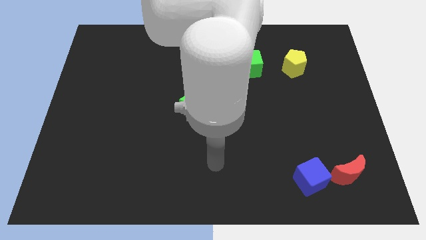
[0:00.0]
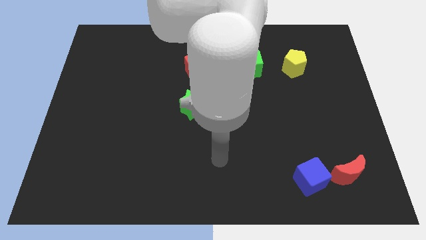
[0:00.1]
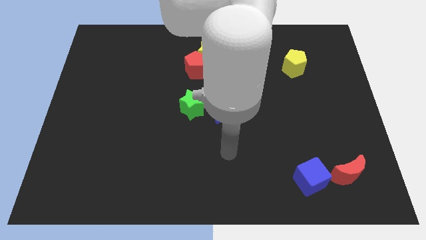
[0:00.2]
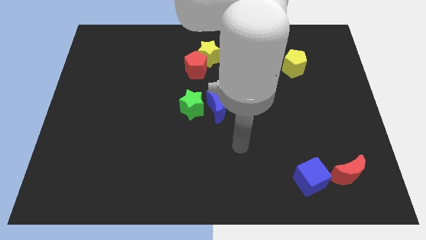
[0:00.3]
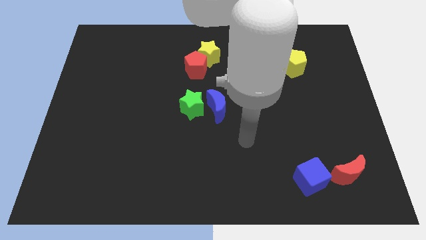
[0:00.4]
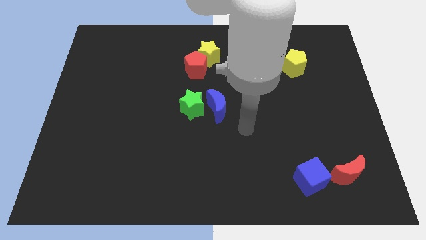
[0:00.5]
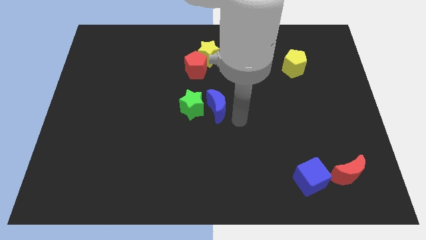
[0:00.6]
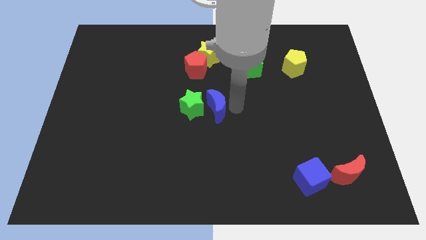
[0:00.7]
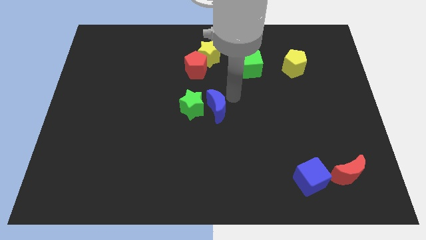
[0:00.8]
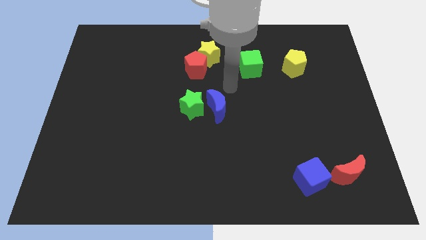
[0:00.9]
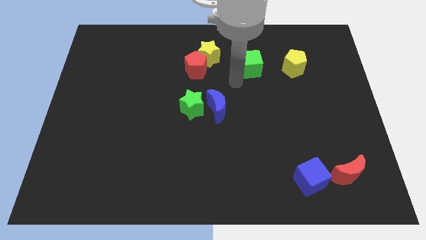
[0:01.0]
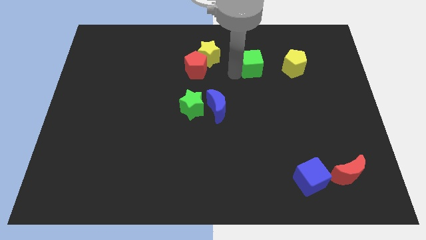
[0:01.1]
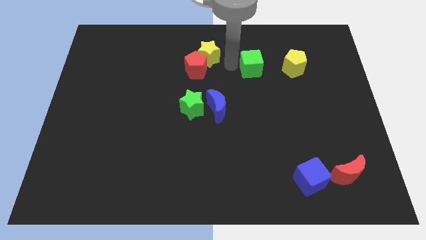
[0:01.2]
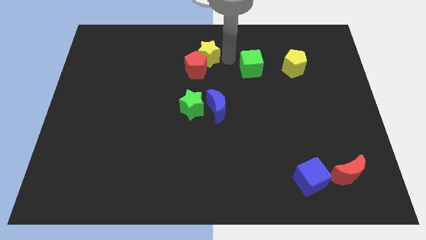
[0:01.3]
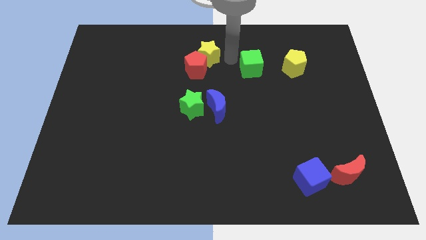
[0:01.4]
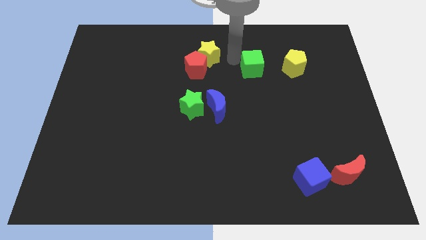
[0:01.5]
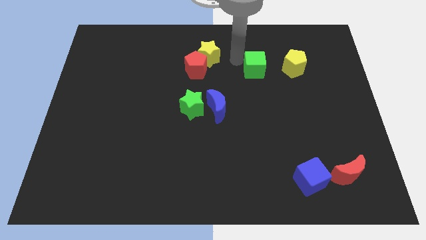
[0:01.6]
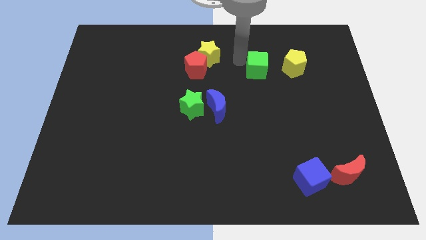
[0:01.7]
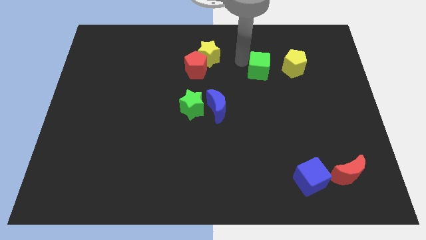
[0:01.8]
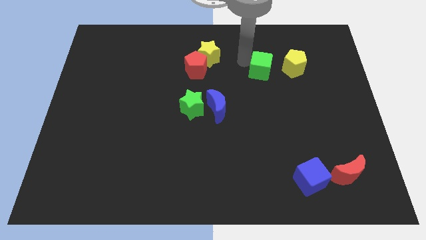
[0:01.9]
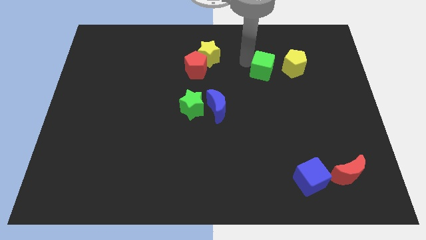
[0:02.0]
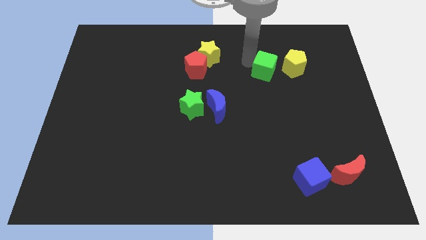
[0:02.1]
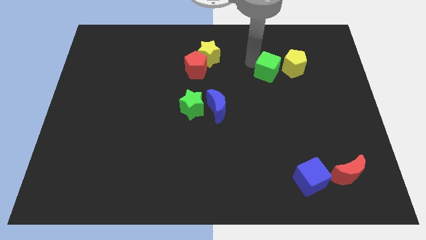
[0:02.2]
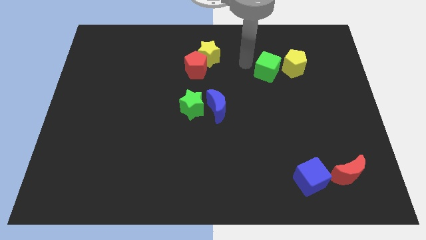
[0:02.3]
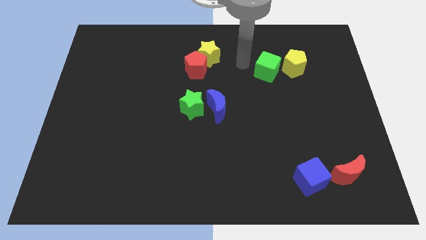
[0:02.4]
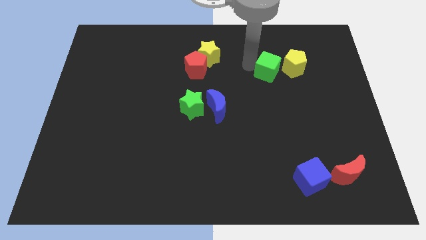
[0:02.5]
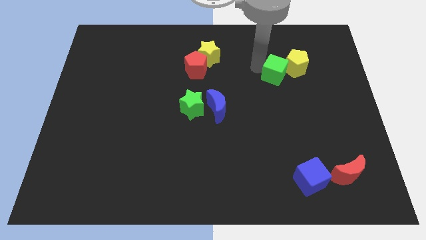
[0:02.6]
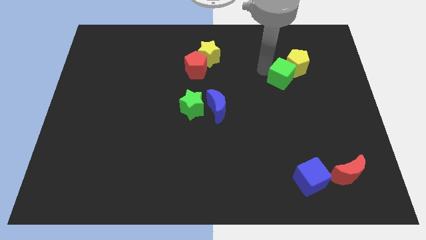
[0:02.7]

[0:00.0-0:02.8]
push the green cube right a little bit

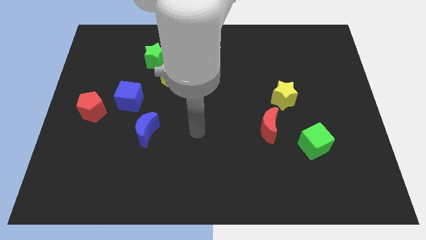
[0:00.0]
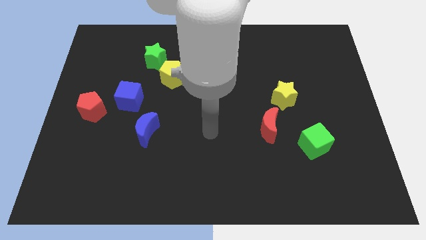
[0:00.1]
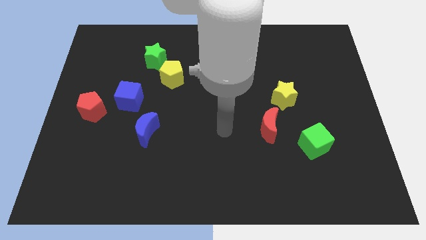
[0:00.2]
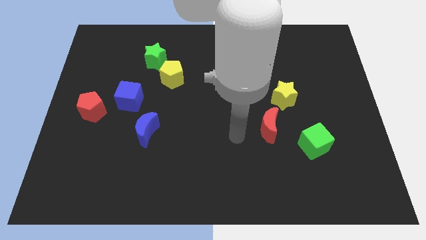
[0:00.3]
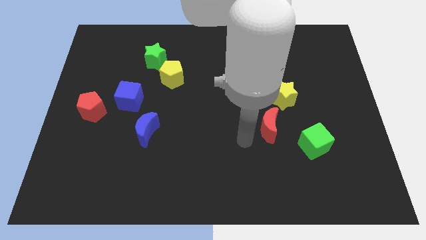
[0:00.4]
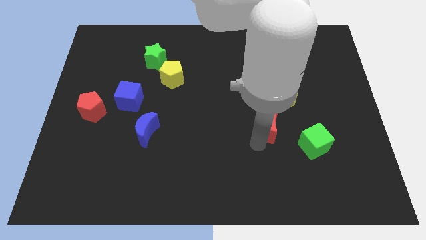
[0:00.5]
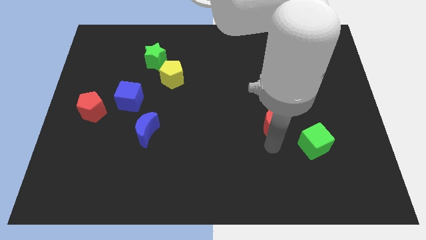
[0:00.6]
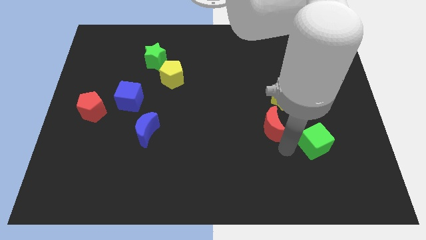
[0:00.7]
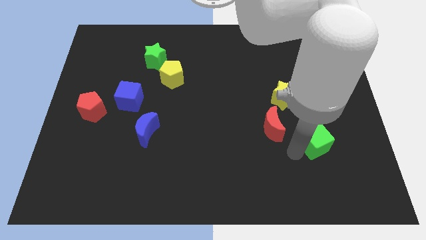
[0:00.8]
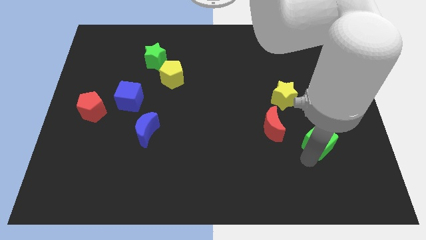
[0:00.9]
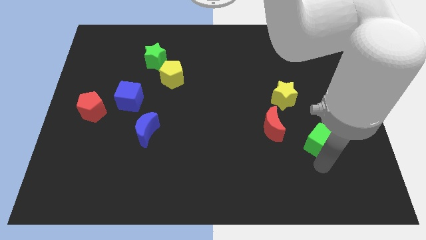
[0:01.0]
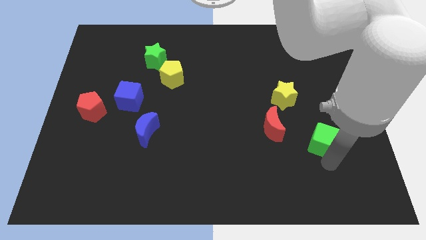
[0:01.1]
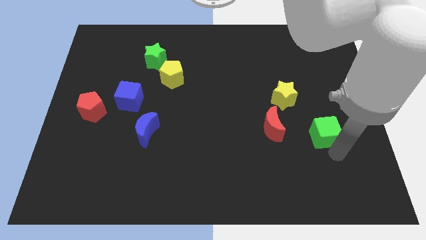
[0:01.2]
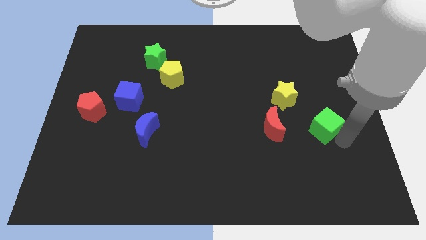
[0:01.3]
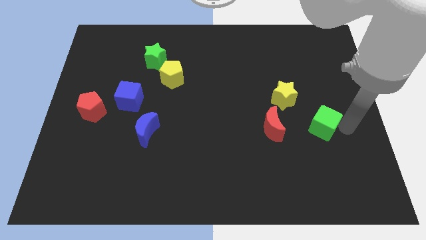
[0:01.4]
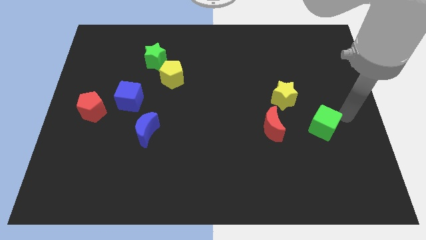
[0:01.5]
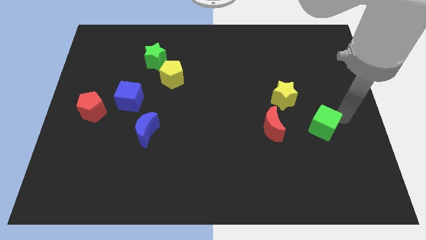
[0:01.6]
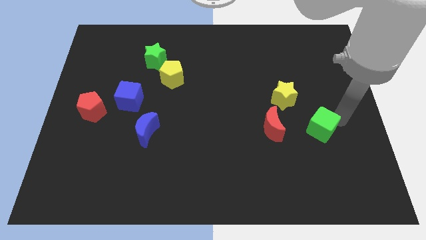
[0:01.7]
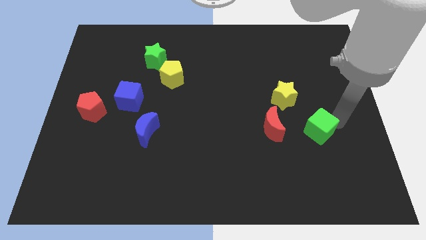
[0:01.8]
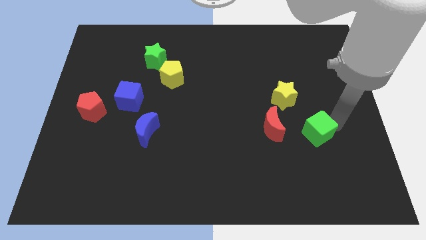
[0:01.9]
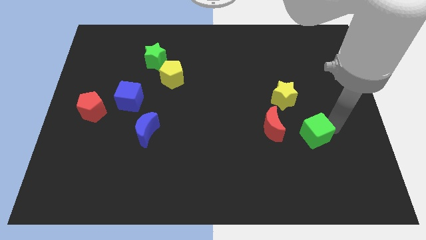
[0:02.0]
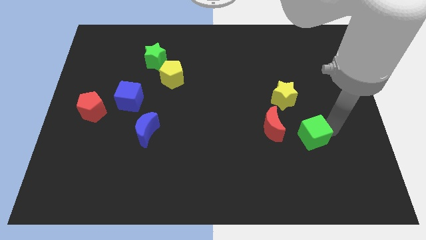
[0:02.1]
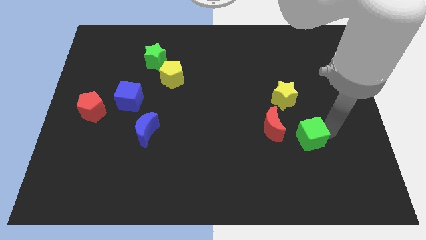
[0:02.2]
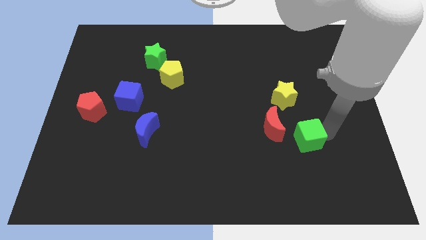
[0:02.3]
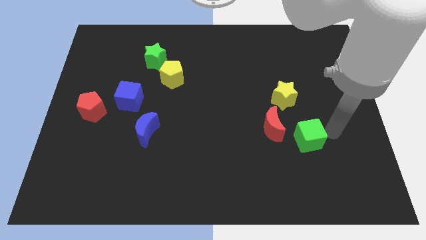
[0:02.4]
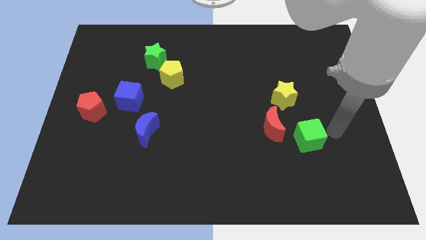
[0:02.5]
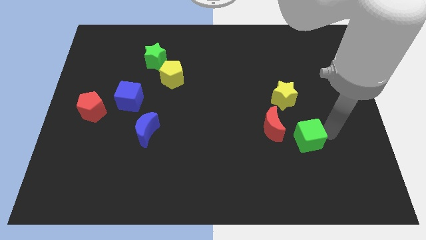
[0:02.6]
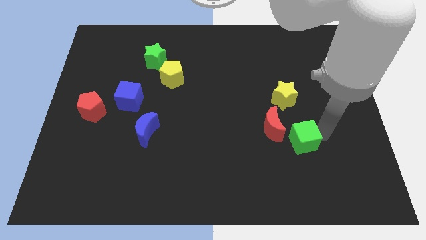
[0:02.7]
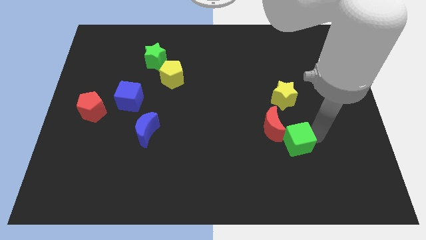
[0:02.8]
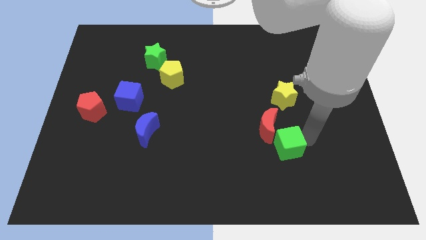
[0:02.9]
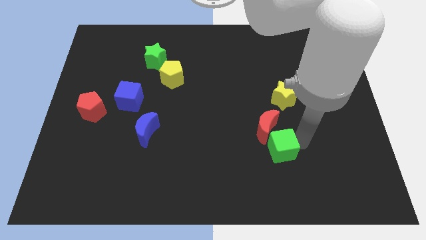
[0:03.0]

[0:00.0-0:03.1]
slightly move the green cube left

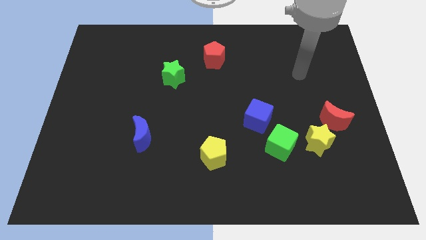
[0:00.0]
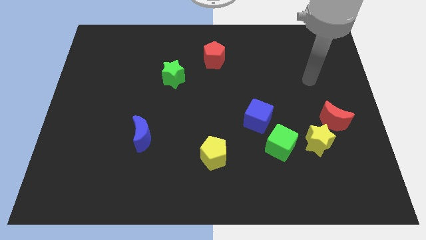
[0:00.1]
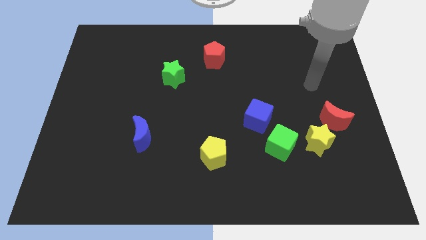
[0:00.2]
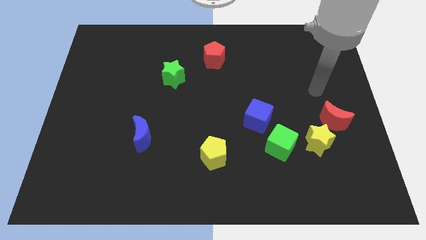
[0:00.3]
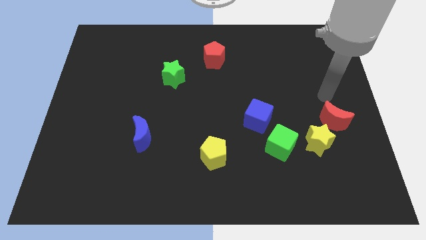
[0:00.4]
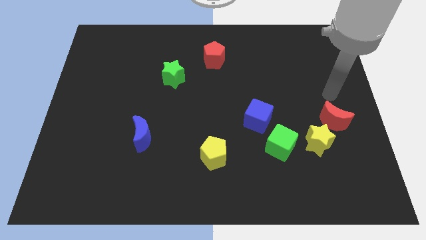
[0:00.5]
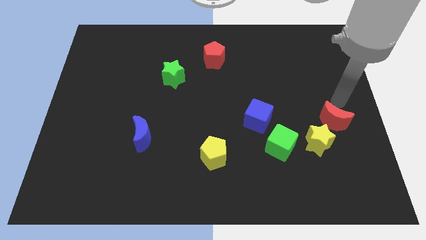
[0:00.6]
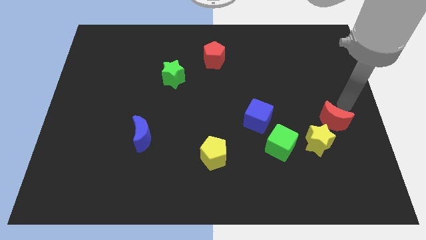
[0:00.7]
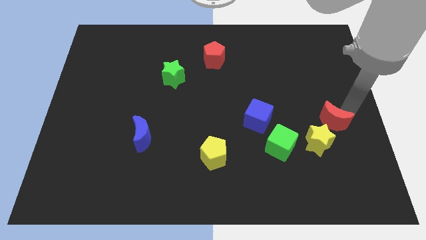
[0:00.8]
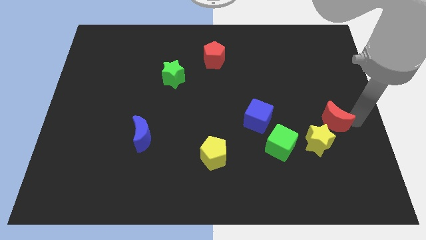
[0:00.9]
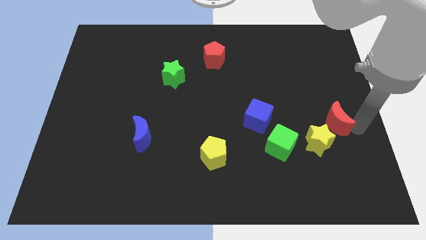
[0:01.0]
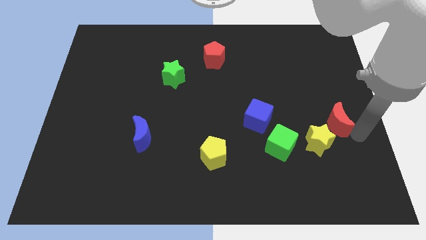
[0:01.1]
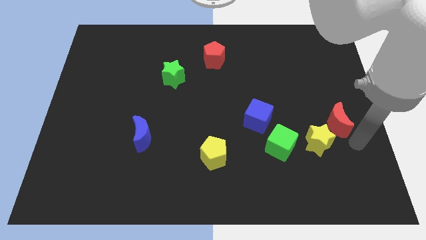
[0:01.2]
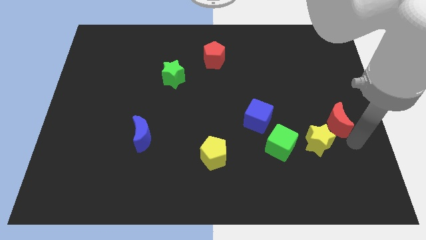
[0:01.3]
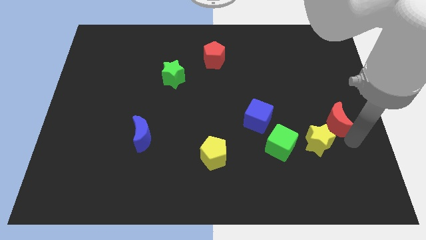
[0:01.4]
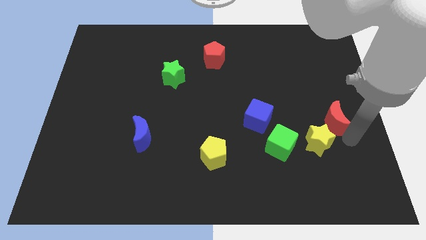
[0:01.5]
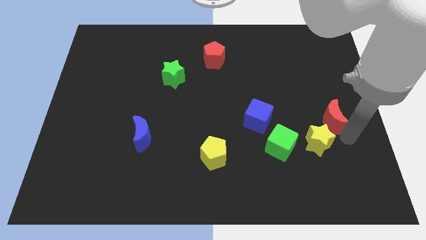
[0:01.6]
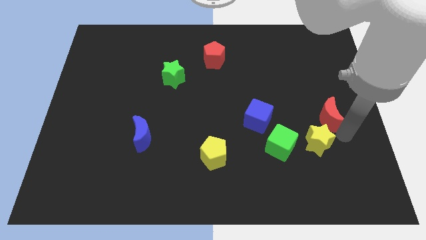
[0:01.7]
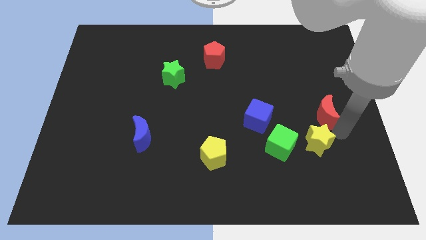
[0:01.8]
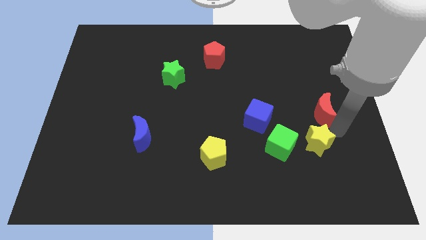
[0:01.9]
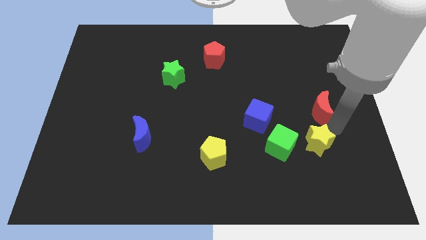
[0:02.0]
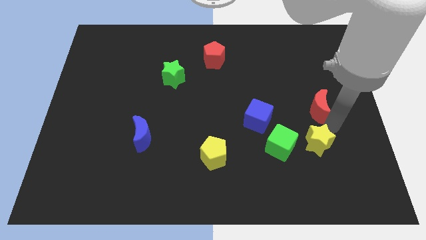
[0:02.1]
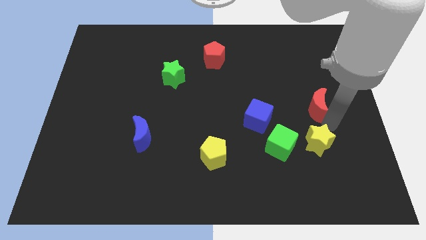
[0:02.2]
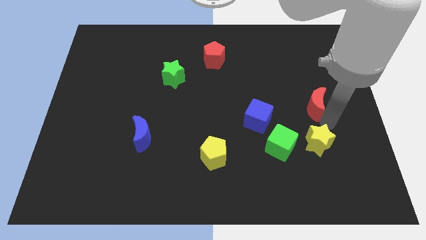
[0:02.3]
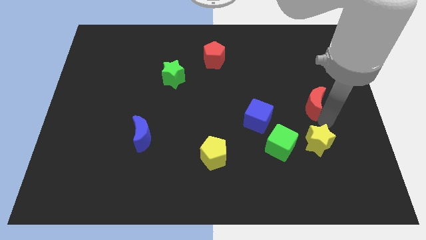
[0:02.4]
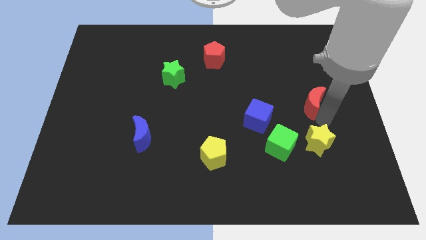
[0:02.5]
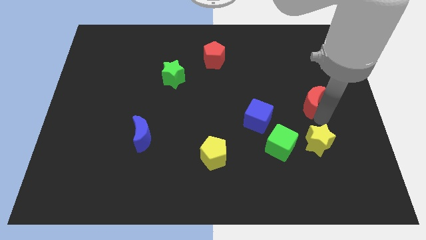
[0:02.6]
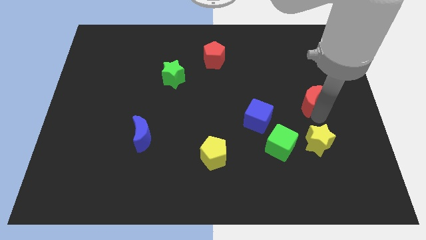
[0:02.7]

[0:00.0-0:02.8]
move the red moon upwards and left diagonally a little bit

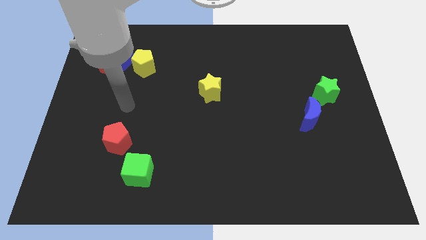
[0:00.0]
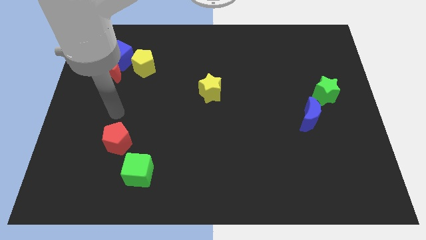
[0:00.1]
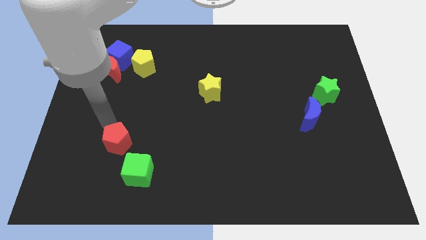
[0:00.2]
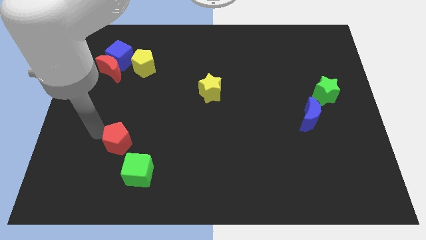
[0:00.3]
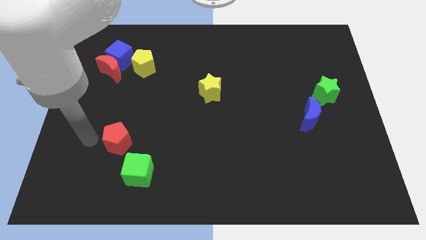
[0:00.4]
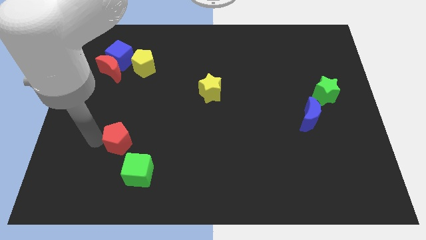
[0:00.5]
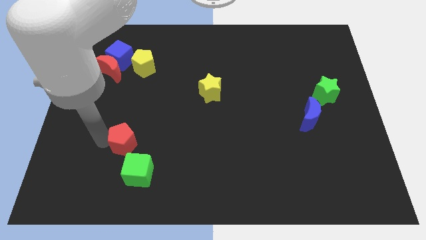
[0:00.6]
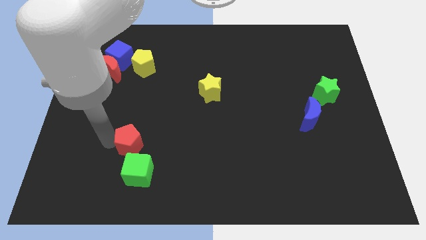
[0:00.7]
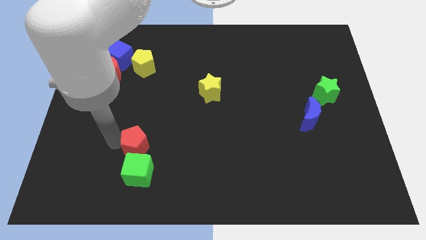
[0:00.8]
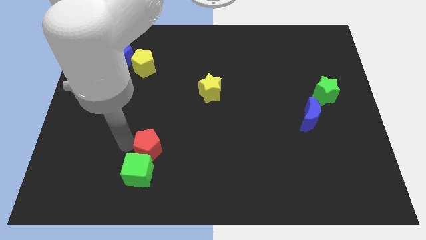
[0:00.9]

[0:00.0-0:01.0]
slightly push the red pentagon to the right
